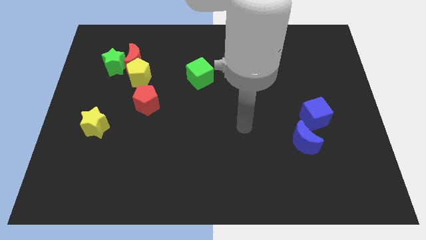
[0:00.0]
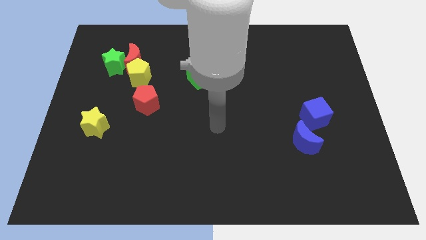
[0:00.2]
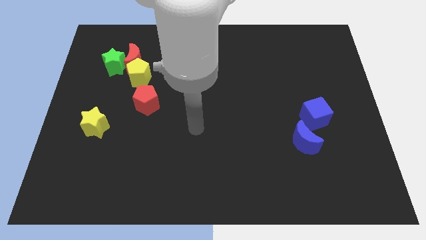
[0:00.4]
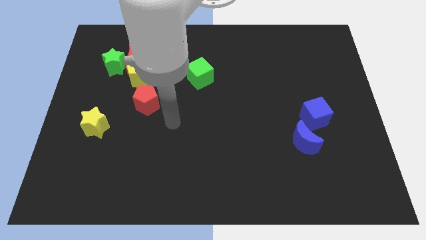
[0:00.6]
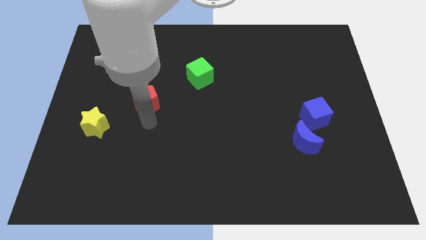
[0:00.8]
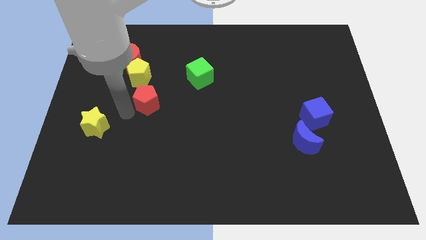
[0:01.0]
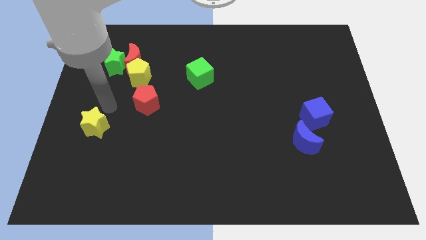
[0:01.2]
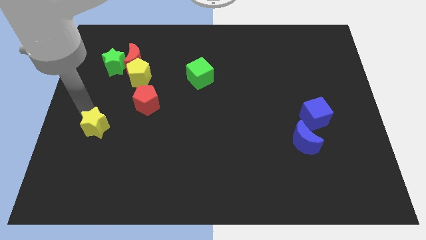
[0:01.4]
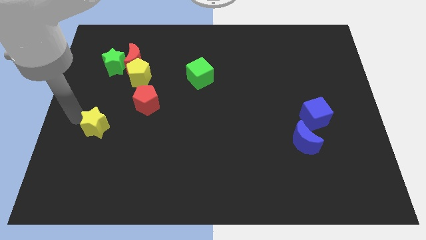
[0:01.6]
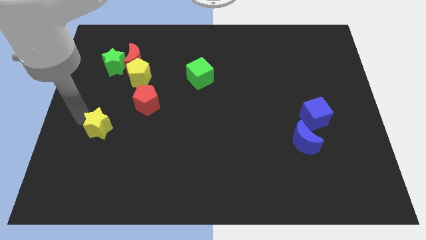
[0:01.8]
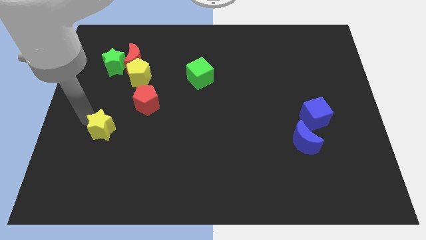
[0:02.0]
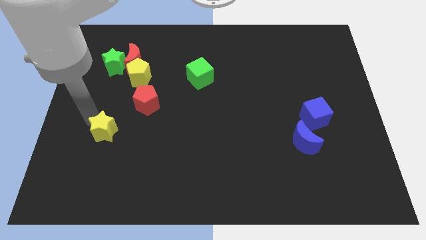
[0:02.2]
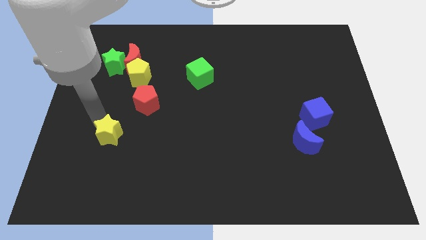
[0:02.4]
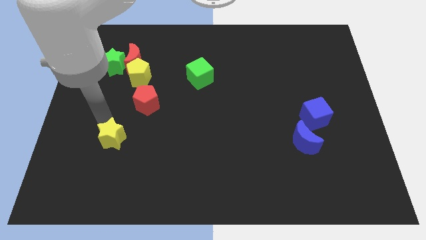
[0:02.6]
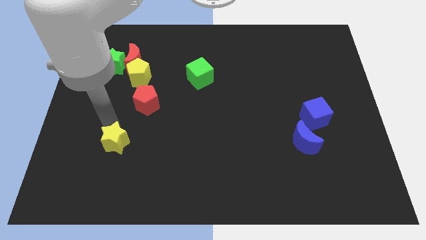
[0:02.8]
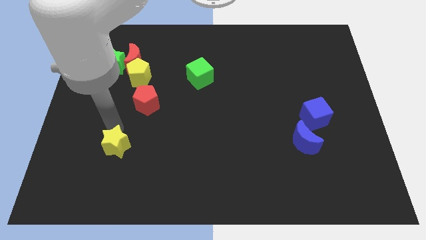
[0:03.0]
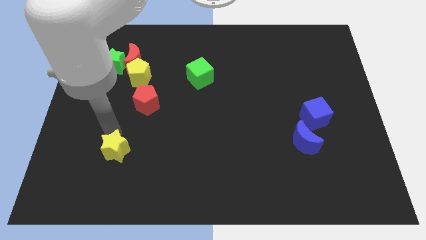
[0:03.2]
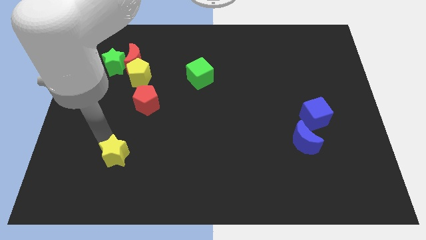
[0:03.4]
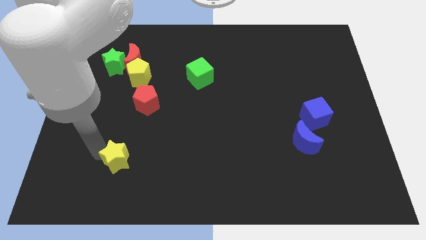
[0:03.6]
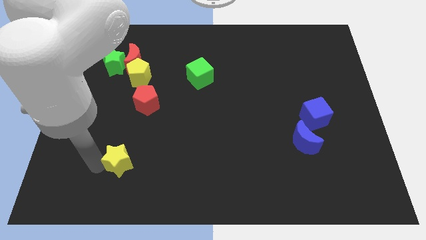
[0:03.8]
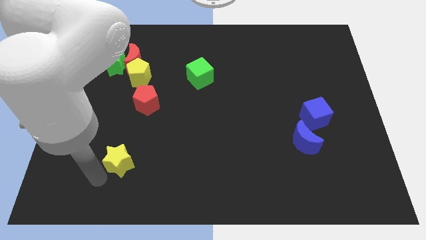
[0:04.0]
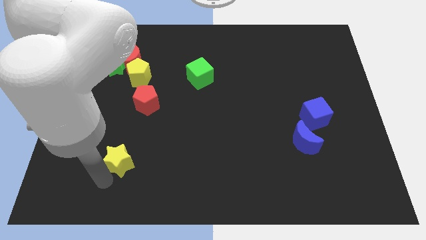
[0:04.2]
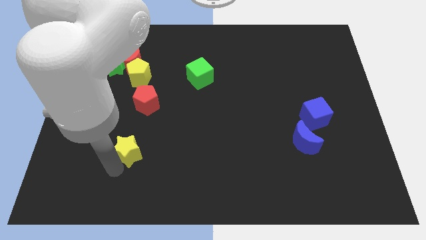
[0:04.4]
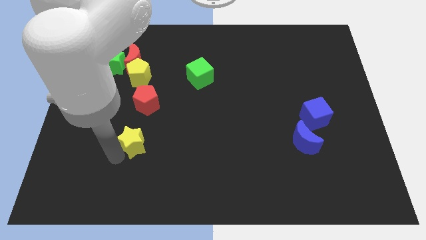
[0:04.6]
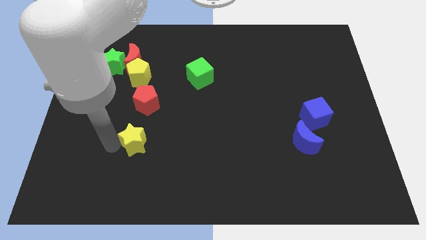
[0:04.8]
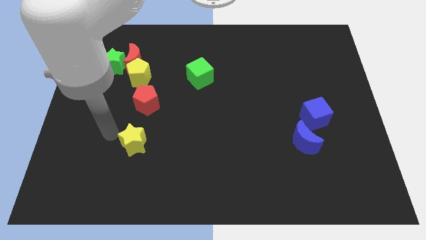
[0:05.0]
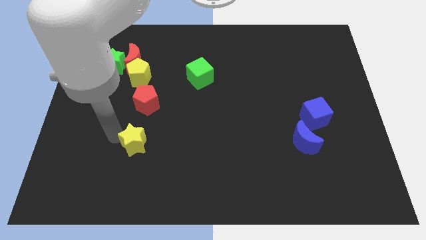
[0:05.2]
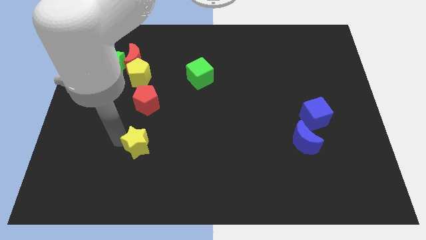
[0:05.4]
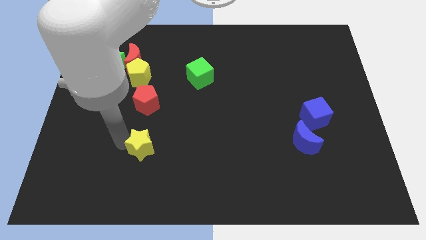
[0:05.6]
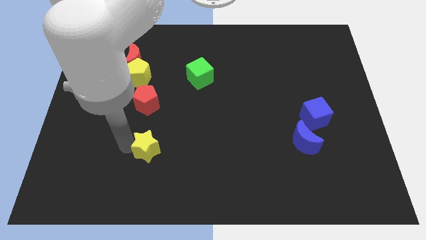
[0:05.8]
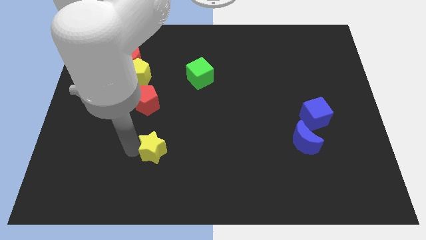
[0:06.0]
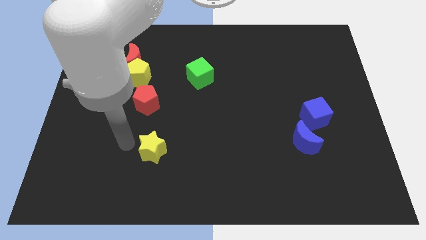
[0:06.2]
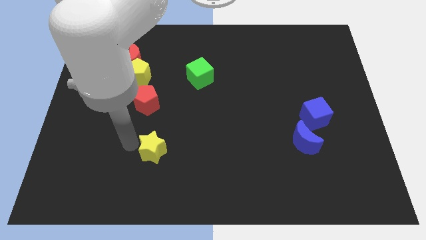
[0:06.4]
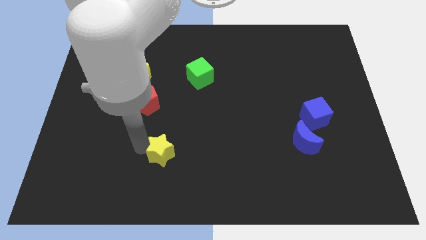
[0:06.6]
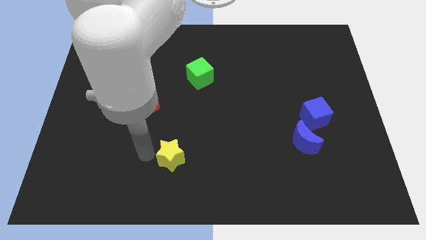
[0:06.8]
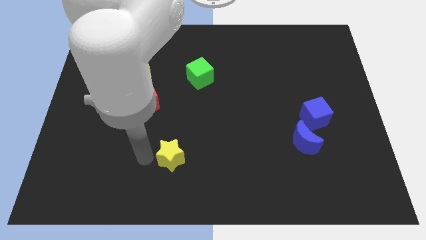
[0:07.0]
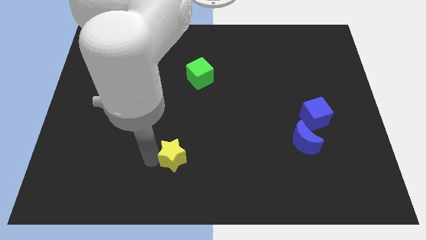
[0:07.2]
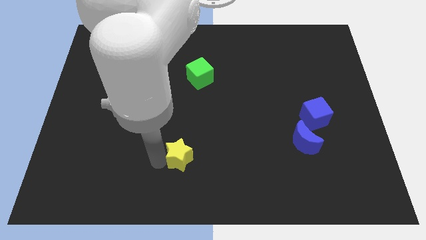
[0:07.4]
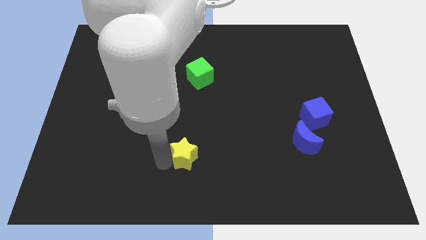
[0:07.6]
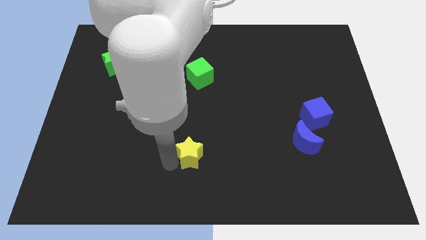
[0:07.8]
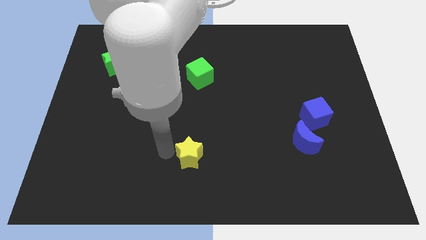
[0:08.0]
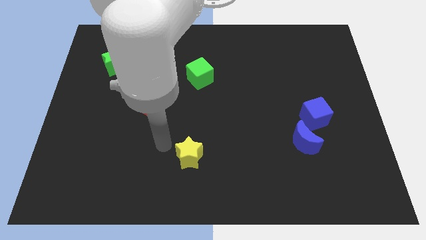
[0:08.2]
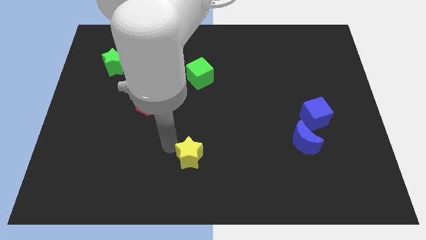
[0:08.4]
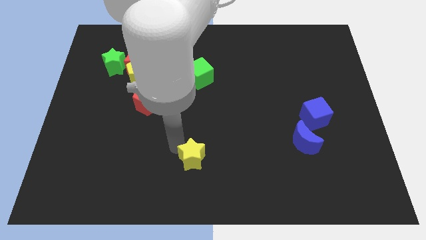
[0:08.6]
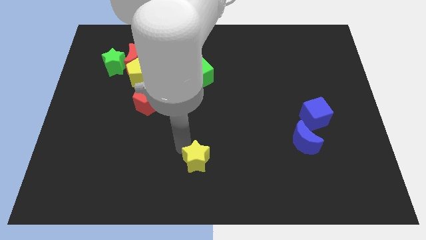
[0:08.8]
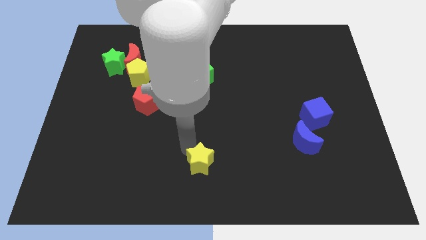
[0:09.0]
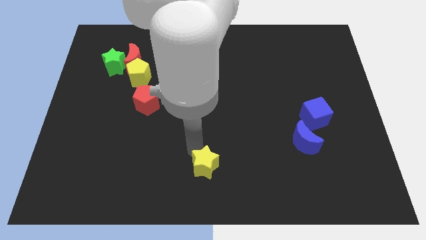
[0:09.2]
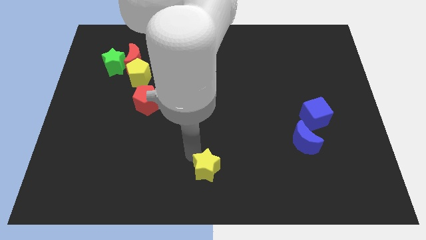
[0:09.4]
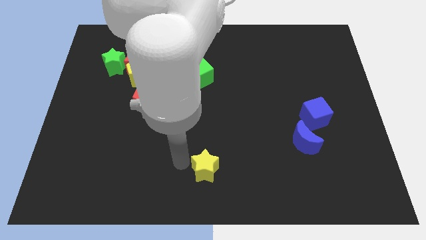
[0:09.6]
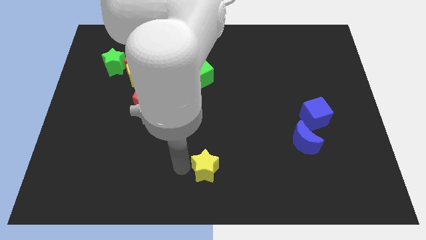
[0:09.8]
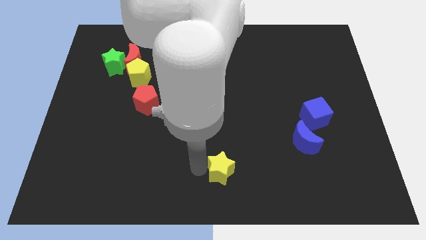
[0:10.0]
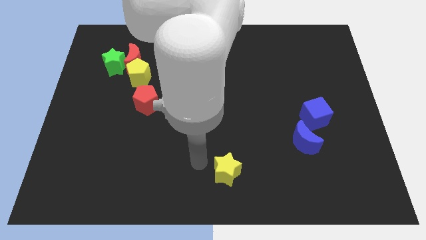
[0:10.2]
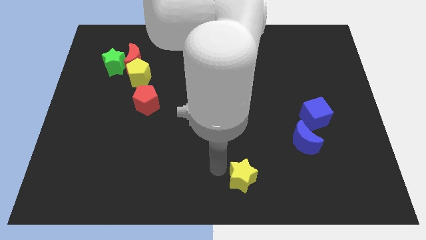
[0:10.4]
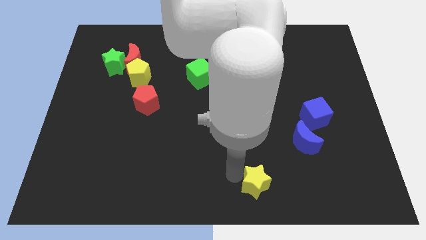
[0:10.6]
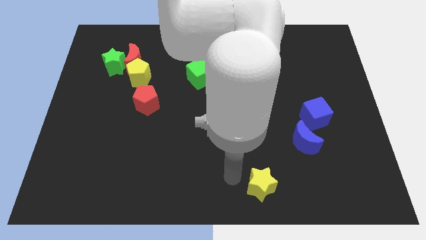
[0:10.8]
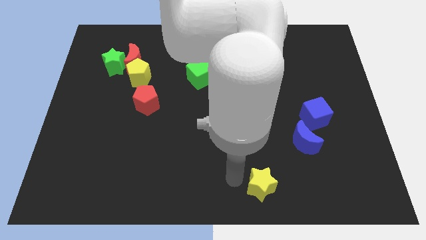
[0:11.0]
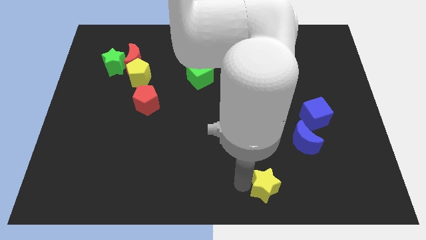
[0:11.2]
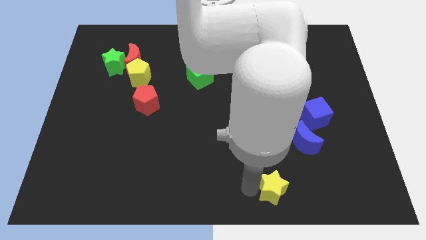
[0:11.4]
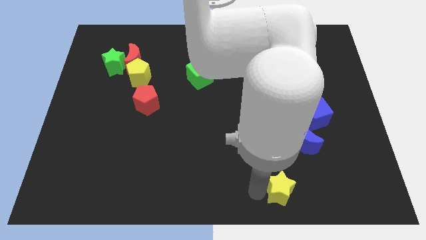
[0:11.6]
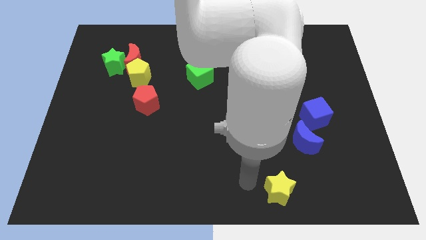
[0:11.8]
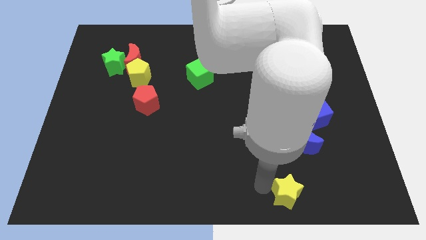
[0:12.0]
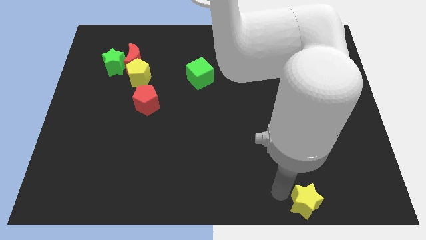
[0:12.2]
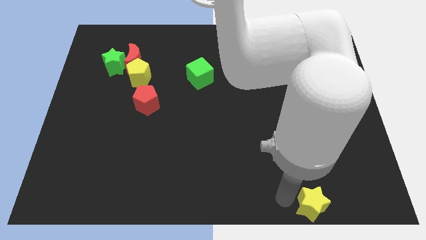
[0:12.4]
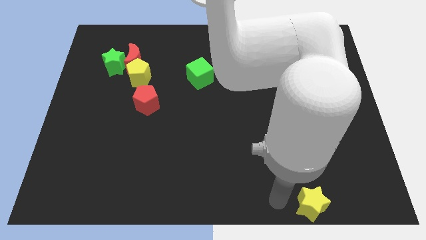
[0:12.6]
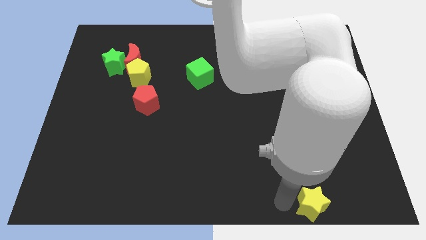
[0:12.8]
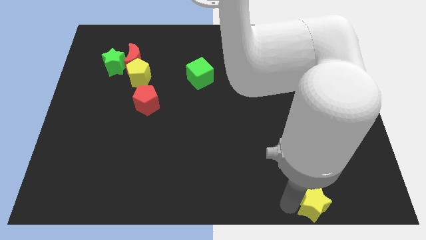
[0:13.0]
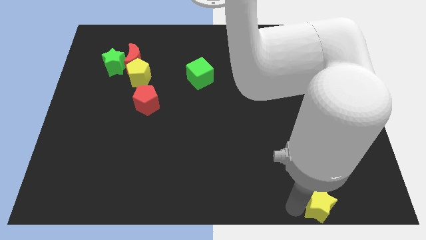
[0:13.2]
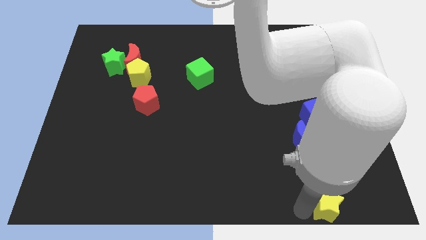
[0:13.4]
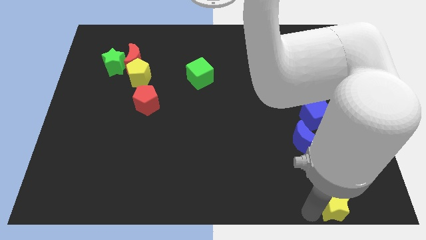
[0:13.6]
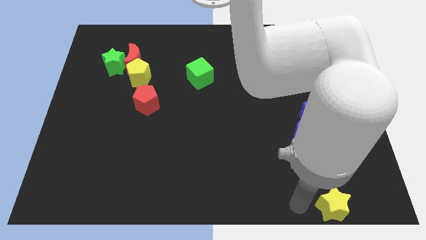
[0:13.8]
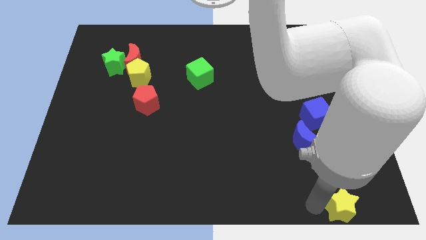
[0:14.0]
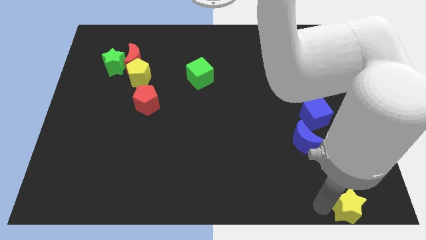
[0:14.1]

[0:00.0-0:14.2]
move the yellow star to the bottom right of the board
